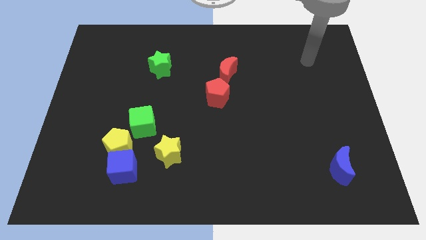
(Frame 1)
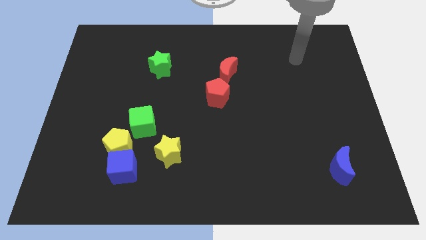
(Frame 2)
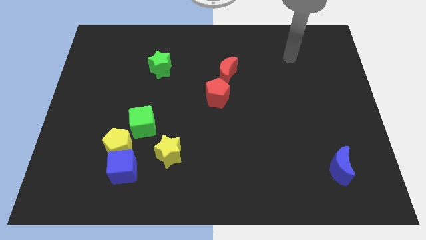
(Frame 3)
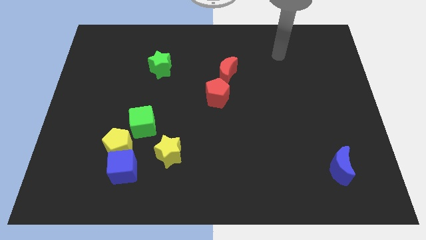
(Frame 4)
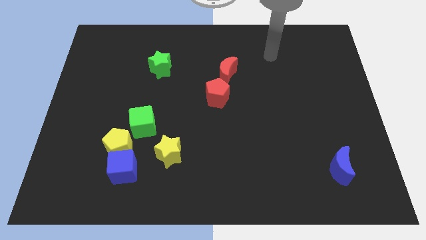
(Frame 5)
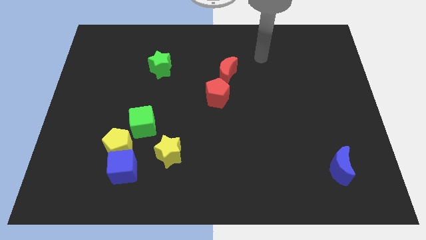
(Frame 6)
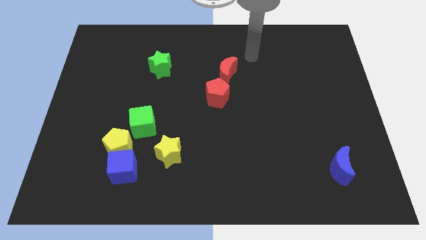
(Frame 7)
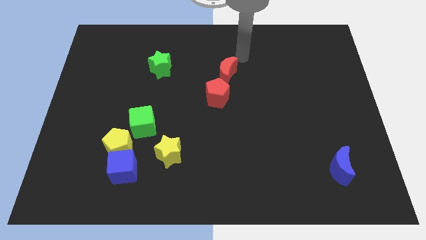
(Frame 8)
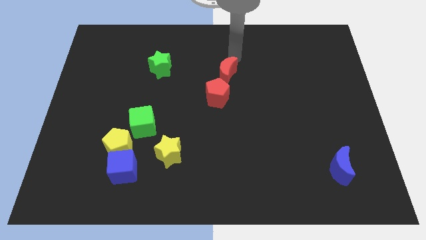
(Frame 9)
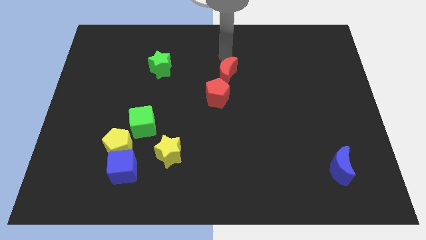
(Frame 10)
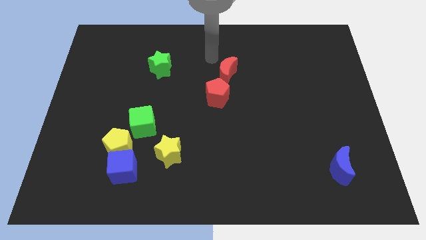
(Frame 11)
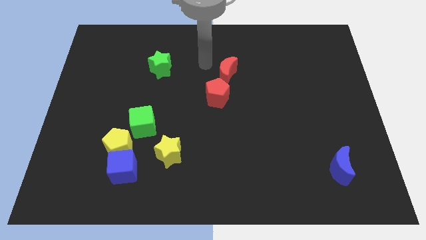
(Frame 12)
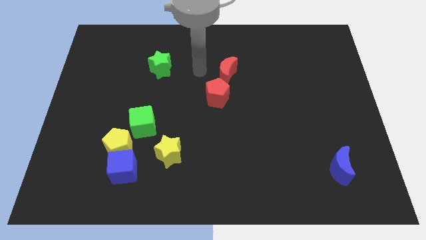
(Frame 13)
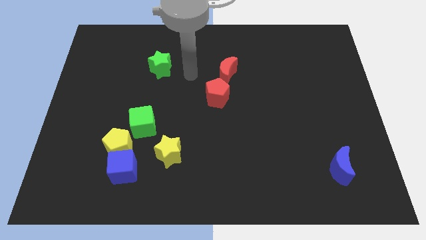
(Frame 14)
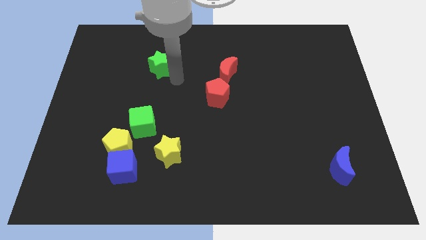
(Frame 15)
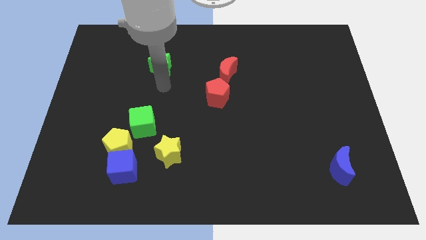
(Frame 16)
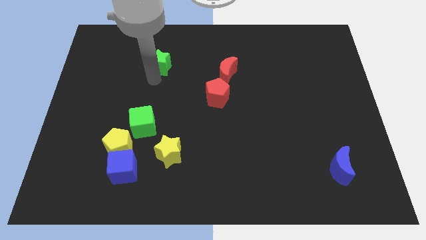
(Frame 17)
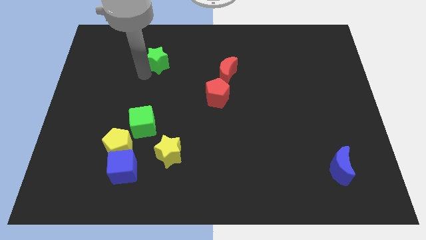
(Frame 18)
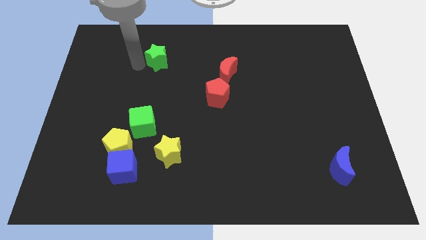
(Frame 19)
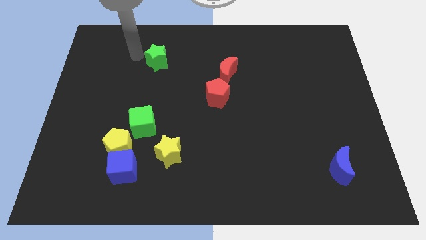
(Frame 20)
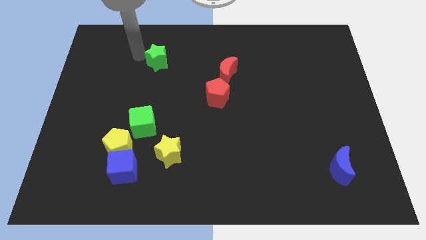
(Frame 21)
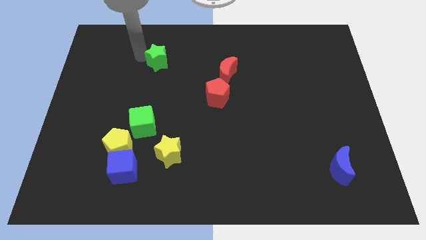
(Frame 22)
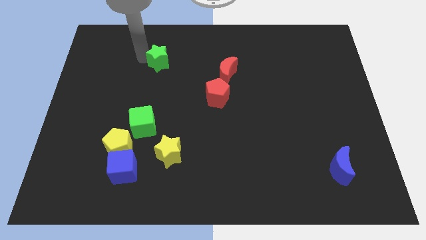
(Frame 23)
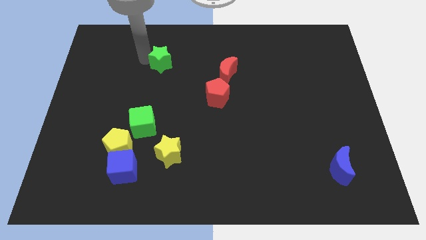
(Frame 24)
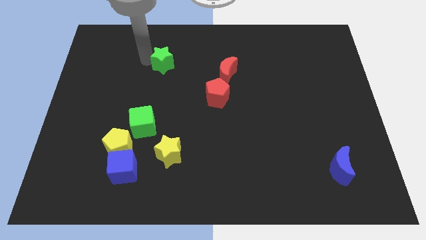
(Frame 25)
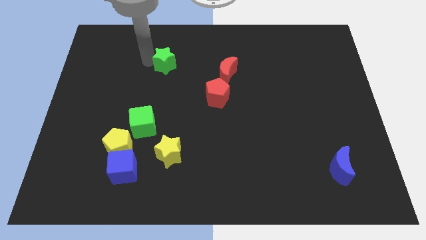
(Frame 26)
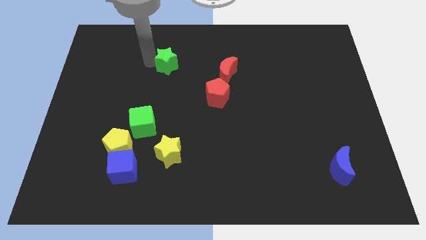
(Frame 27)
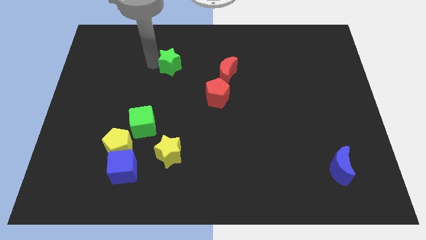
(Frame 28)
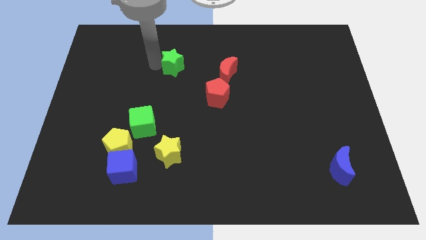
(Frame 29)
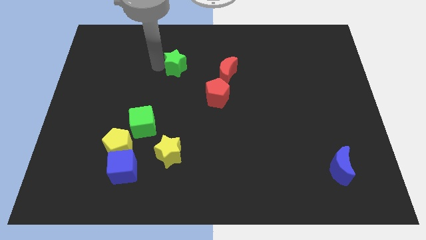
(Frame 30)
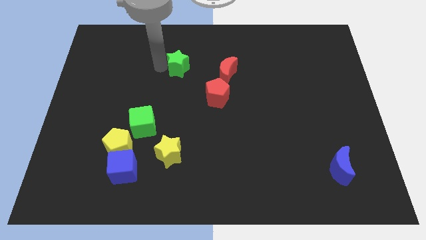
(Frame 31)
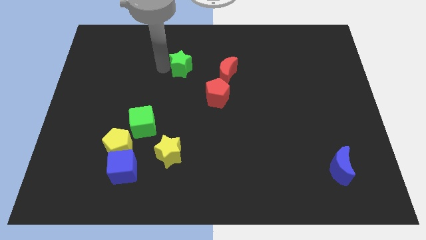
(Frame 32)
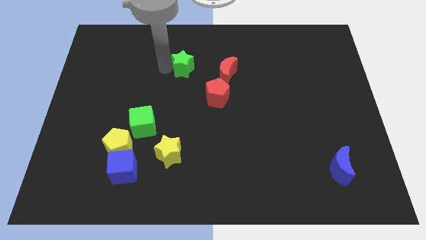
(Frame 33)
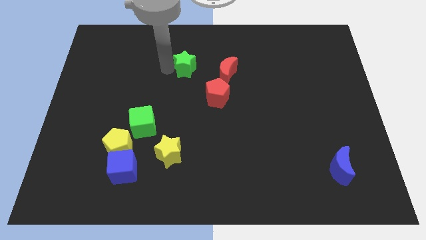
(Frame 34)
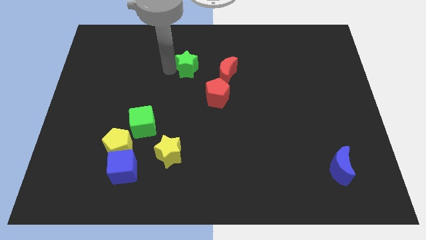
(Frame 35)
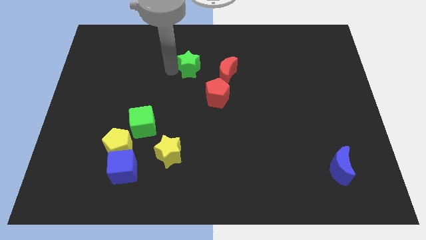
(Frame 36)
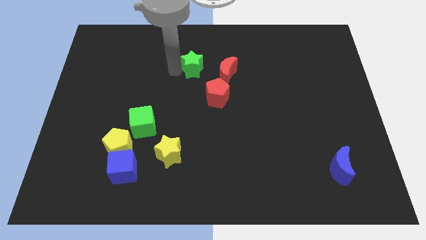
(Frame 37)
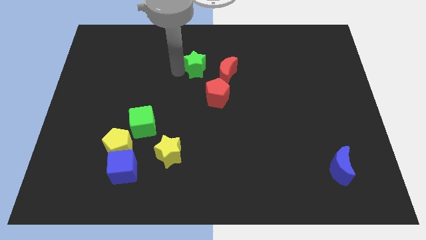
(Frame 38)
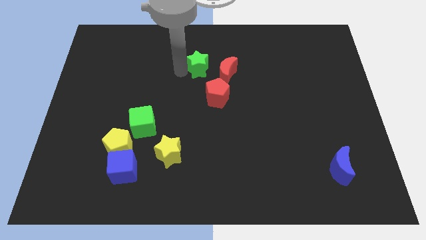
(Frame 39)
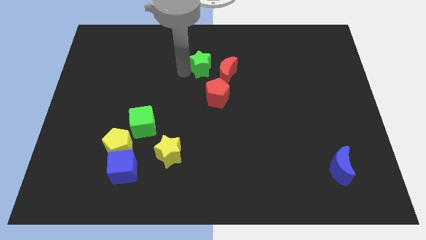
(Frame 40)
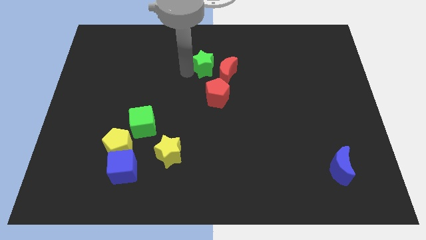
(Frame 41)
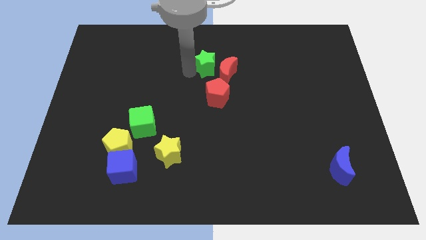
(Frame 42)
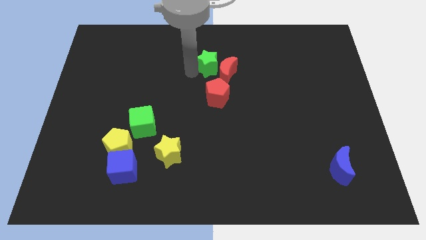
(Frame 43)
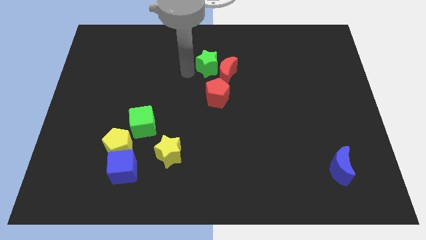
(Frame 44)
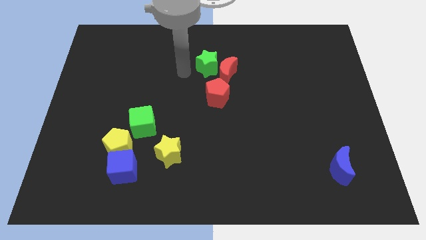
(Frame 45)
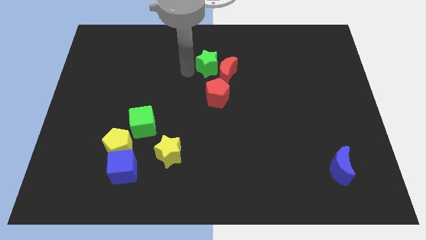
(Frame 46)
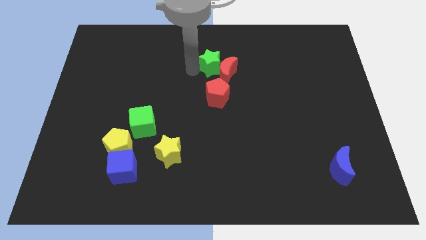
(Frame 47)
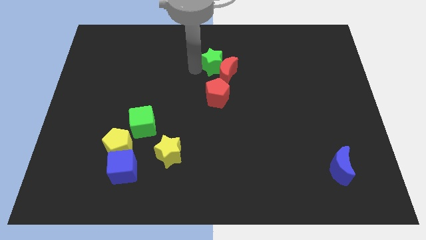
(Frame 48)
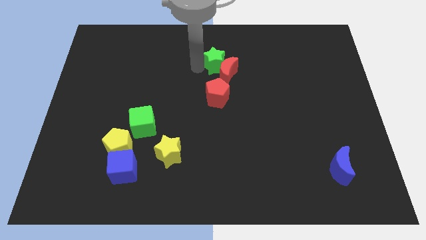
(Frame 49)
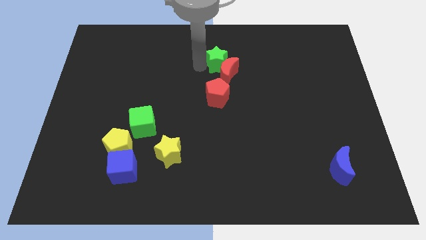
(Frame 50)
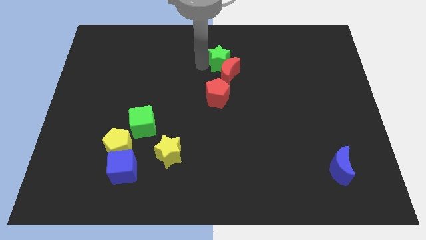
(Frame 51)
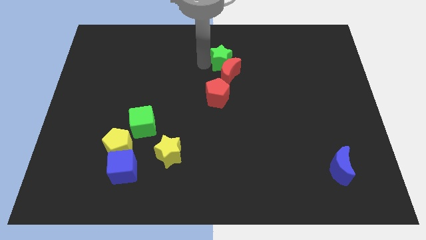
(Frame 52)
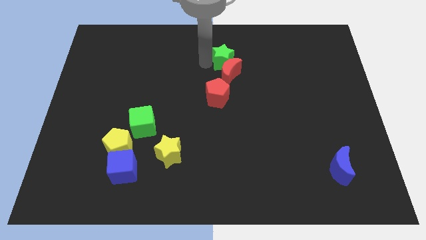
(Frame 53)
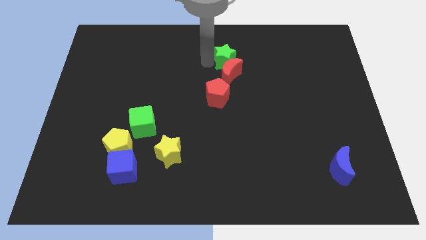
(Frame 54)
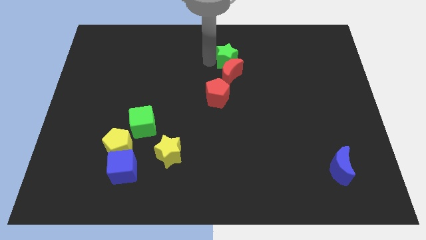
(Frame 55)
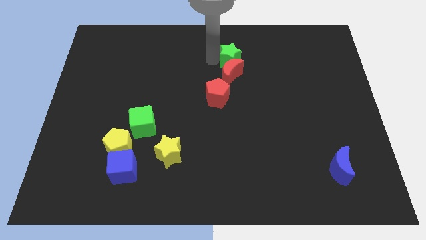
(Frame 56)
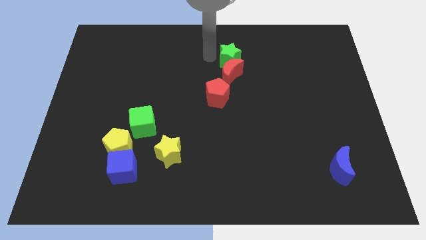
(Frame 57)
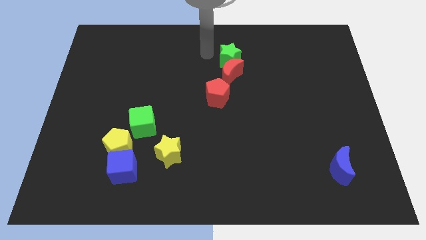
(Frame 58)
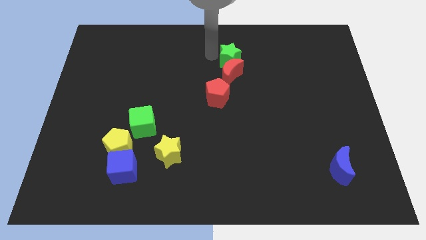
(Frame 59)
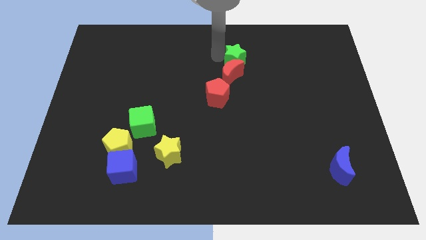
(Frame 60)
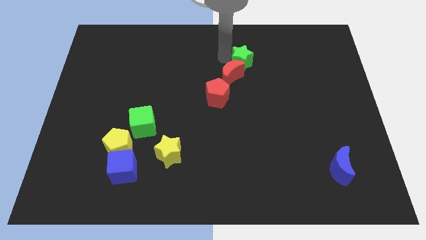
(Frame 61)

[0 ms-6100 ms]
move the green star right

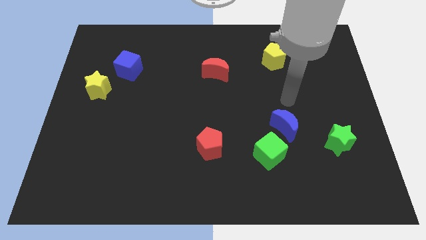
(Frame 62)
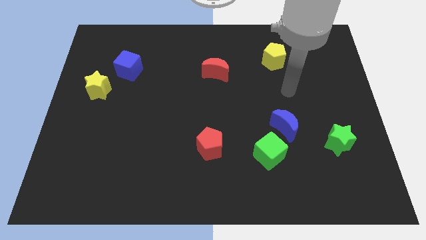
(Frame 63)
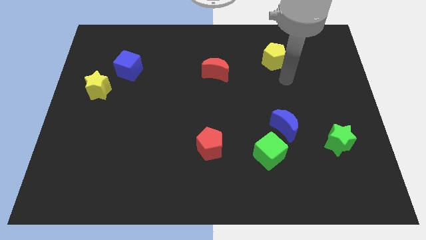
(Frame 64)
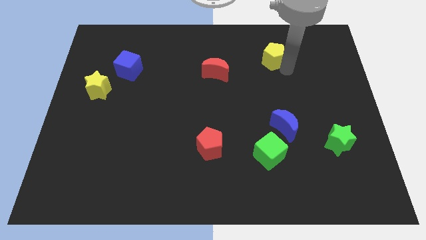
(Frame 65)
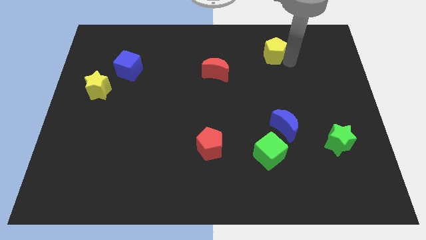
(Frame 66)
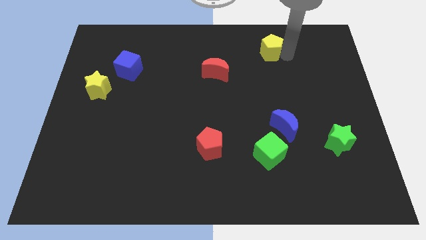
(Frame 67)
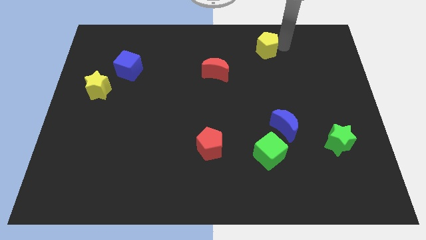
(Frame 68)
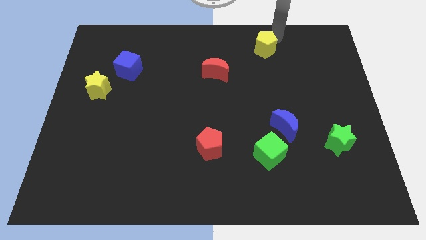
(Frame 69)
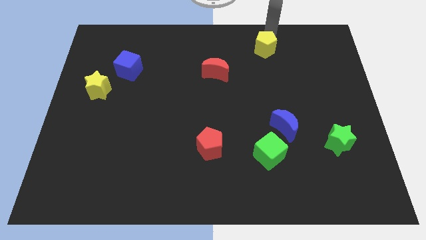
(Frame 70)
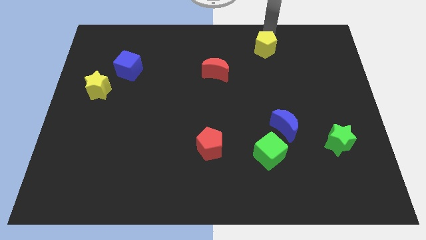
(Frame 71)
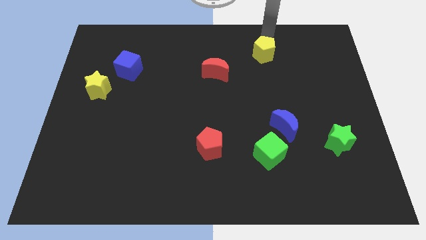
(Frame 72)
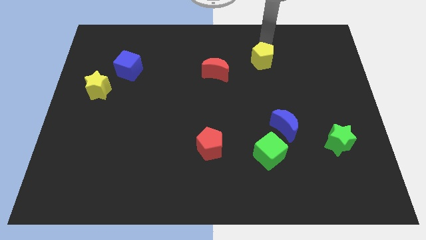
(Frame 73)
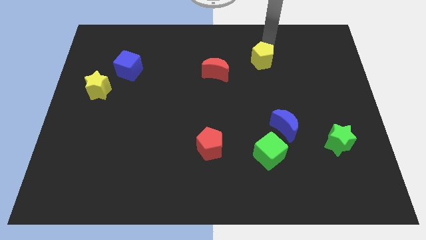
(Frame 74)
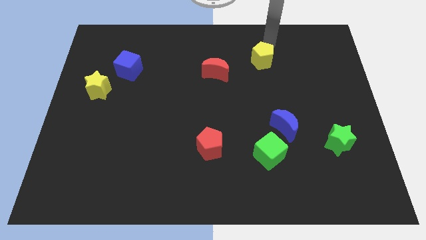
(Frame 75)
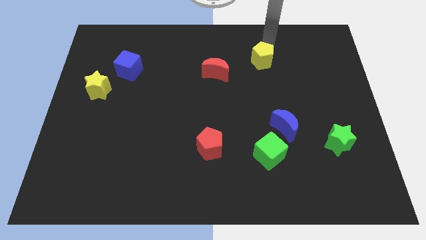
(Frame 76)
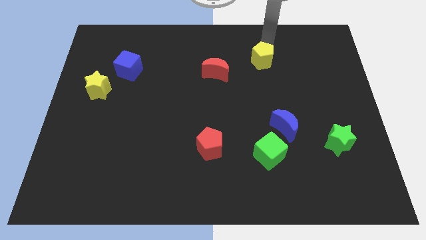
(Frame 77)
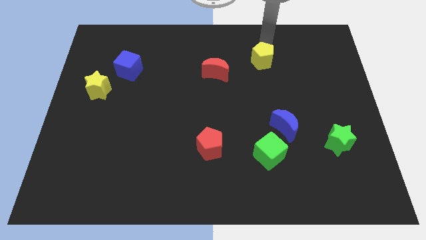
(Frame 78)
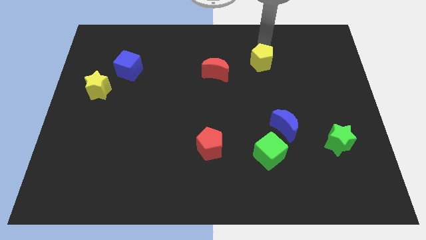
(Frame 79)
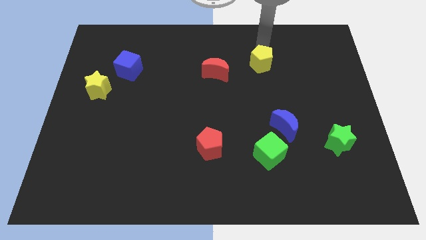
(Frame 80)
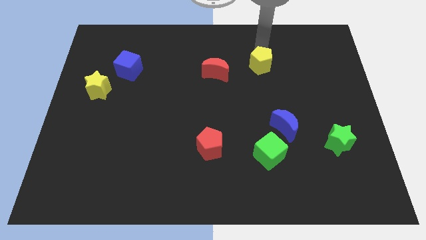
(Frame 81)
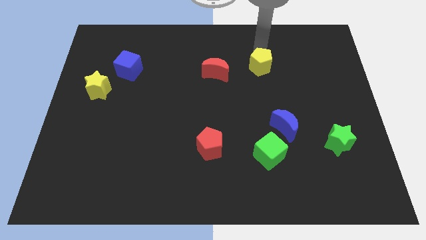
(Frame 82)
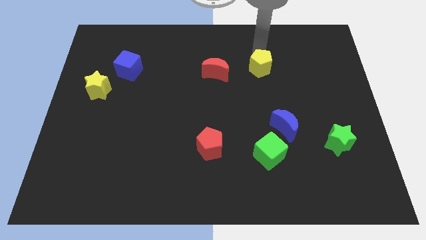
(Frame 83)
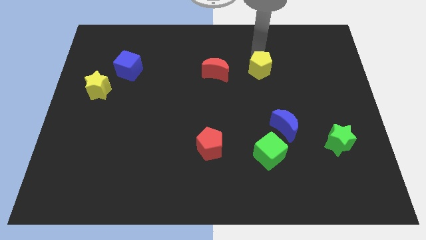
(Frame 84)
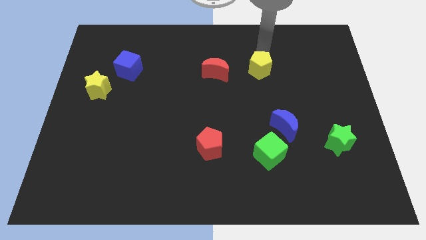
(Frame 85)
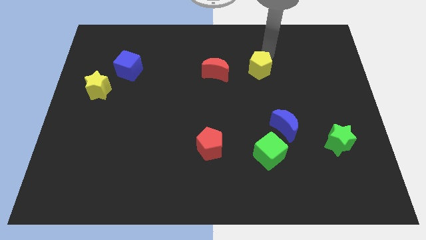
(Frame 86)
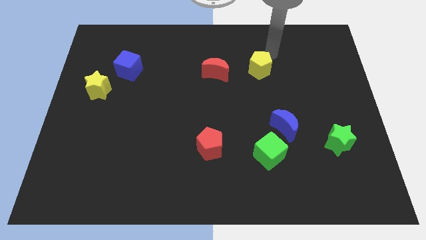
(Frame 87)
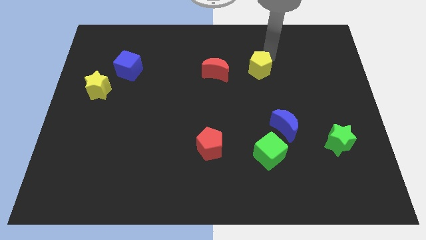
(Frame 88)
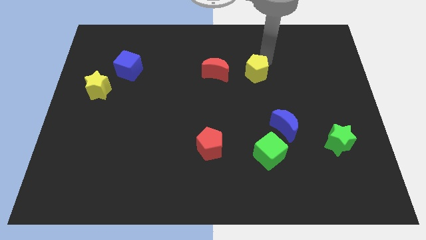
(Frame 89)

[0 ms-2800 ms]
slide the yellow pentagon a little bit down and to the left
